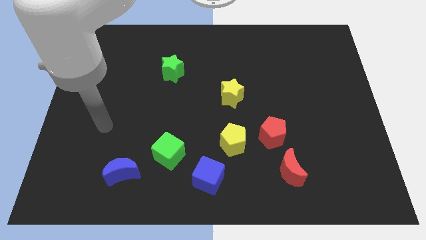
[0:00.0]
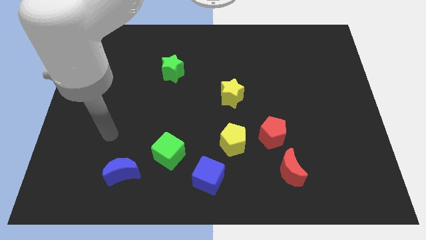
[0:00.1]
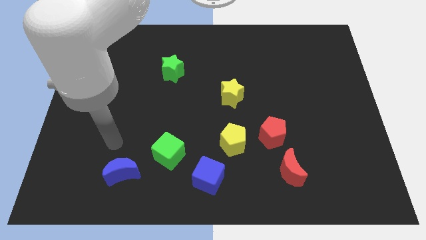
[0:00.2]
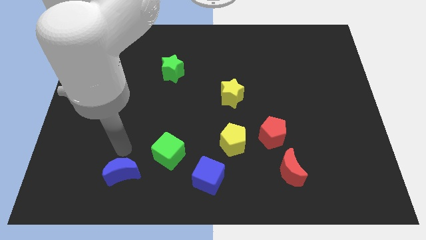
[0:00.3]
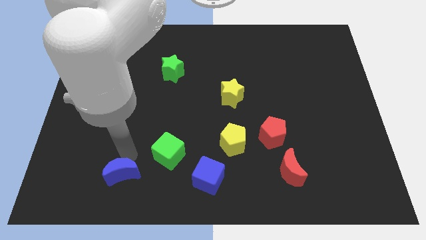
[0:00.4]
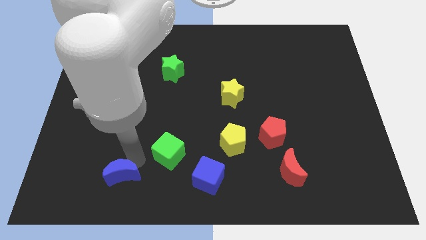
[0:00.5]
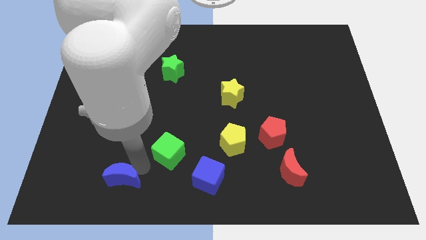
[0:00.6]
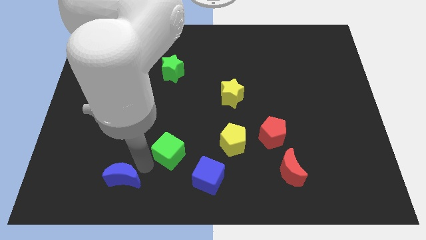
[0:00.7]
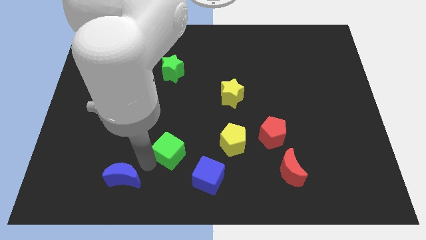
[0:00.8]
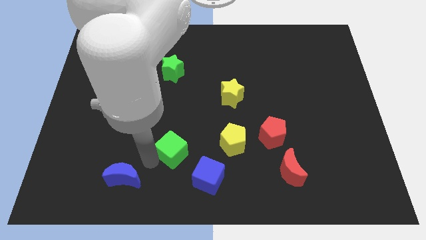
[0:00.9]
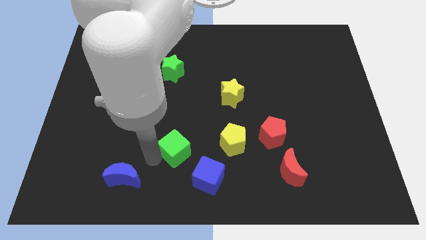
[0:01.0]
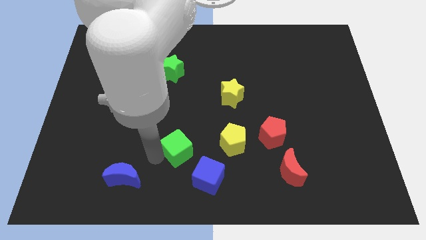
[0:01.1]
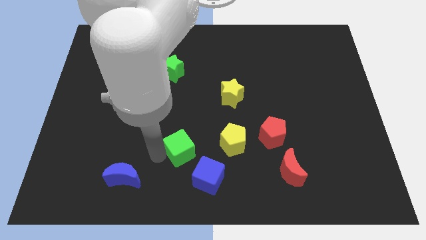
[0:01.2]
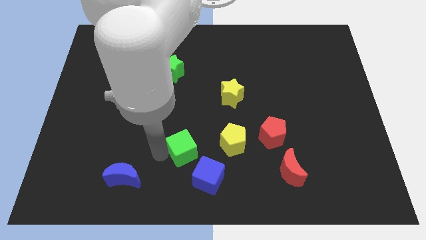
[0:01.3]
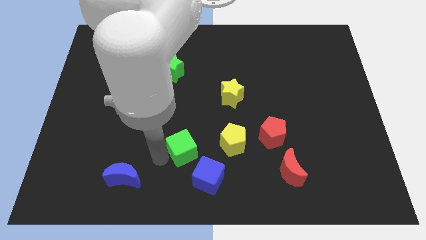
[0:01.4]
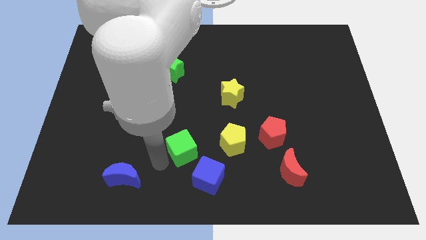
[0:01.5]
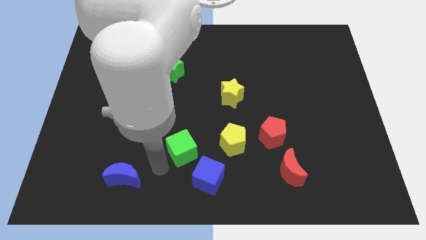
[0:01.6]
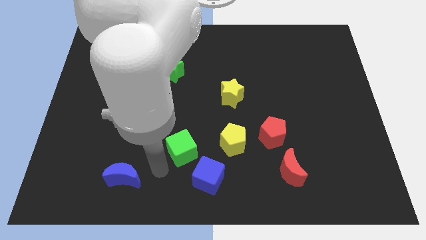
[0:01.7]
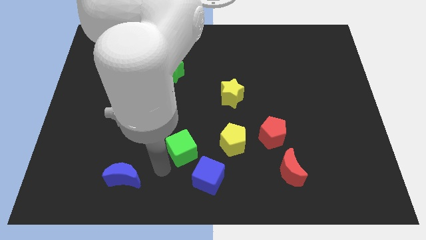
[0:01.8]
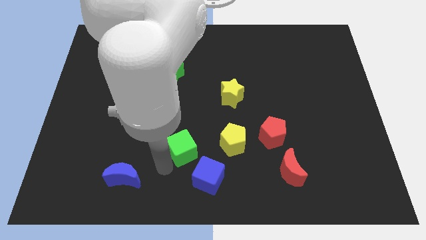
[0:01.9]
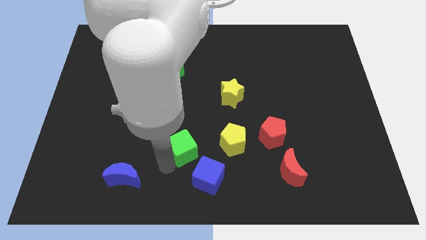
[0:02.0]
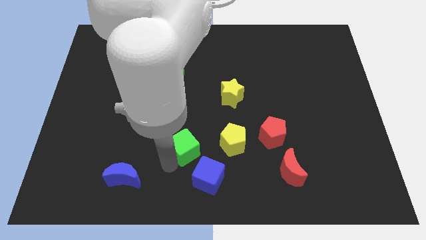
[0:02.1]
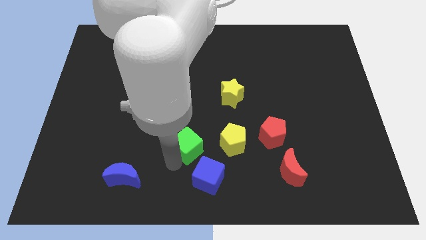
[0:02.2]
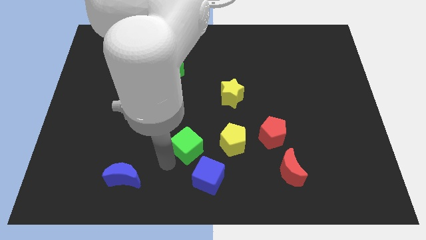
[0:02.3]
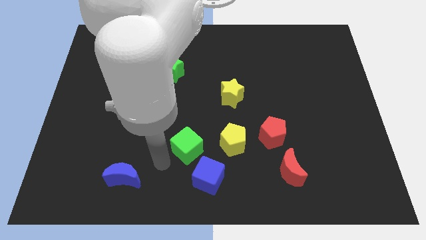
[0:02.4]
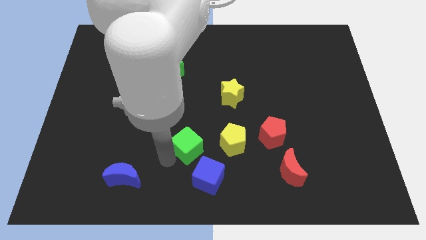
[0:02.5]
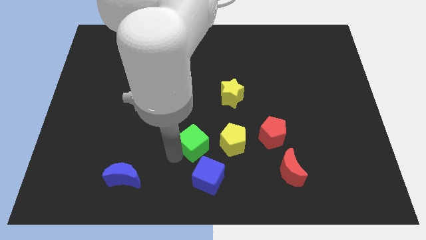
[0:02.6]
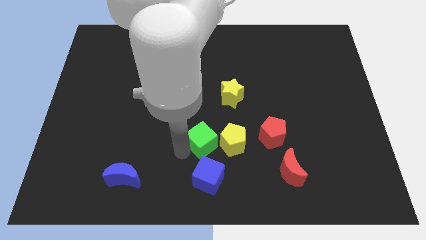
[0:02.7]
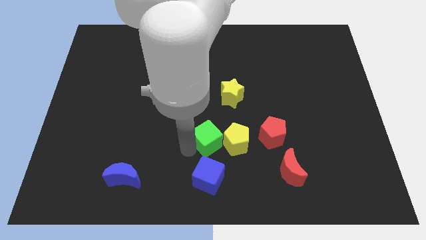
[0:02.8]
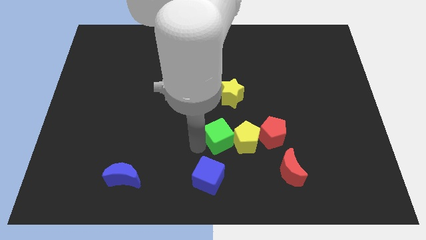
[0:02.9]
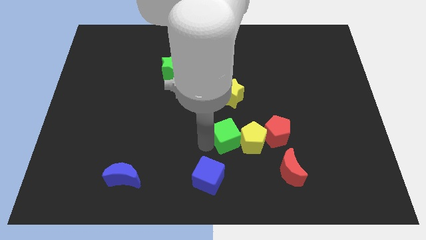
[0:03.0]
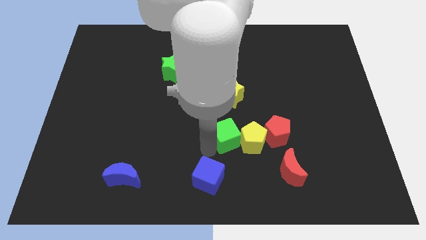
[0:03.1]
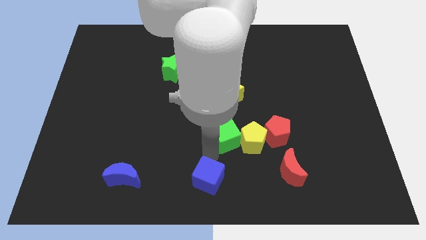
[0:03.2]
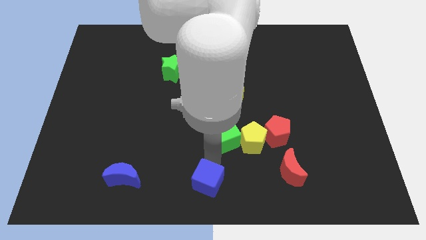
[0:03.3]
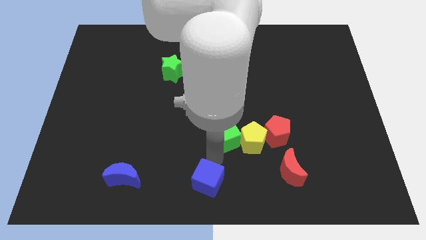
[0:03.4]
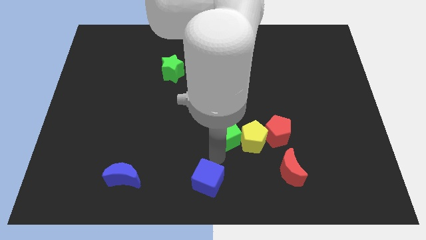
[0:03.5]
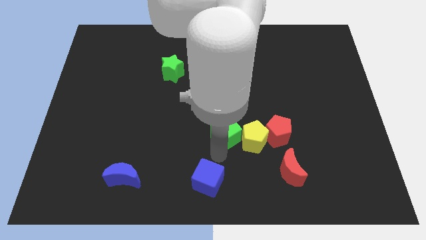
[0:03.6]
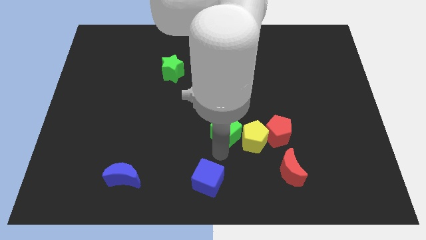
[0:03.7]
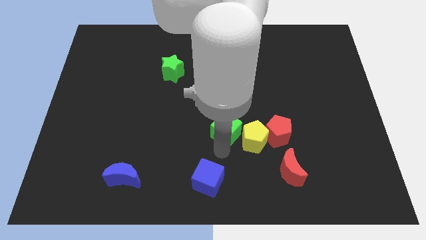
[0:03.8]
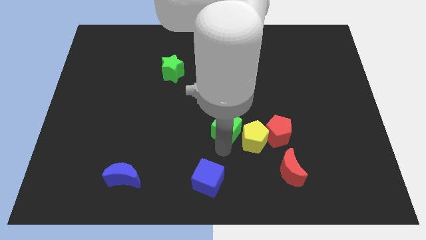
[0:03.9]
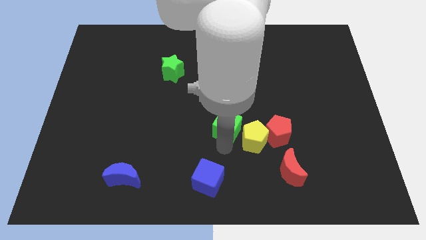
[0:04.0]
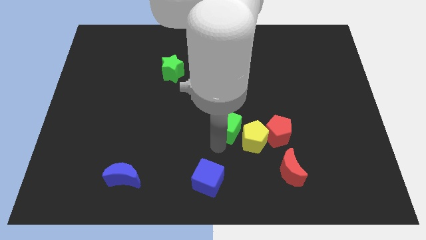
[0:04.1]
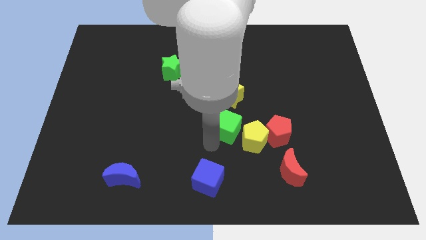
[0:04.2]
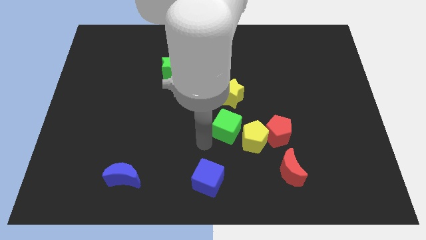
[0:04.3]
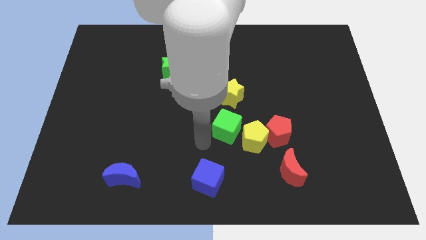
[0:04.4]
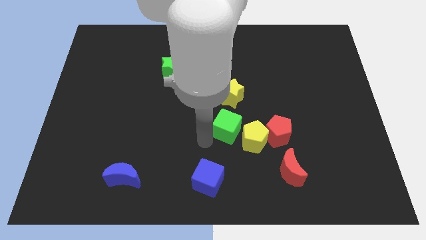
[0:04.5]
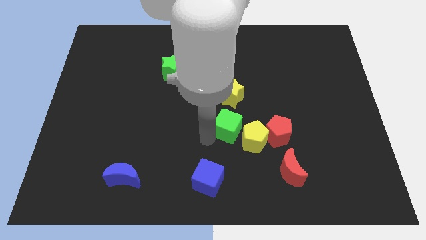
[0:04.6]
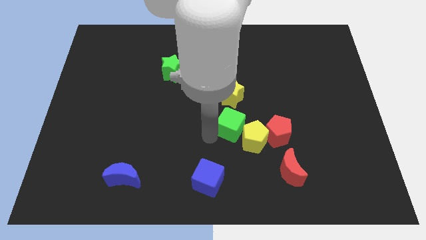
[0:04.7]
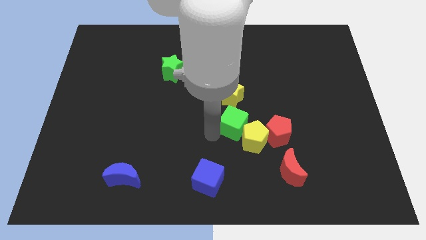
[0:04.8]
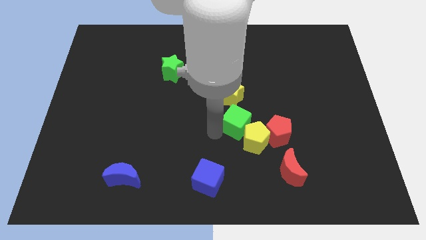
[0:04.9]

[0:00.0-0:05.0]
slide the green cube to the bottom right of the yellow star

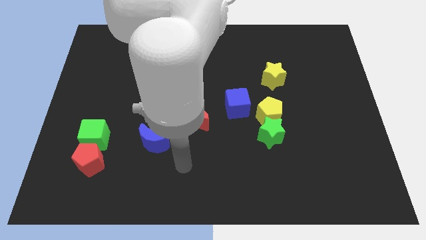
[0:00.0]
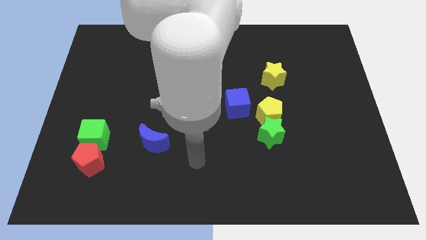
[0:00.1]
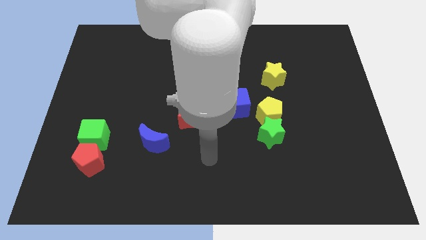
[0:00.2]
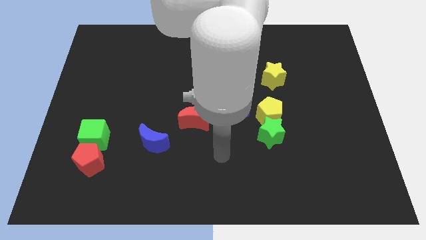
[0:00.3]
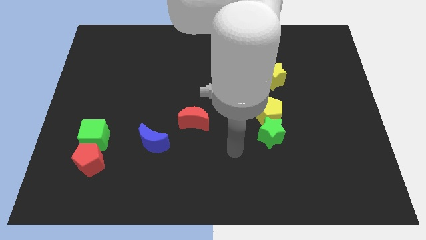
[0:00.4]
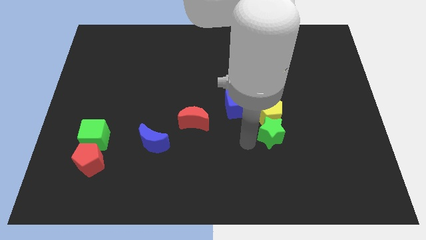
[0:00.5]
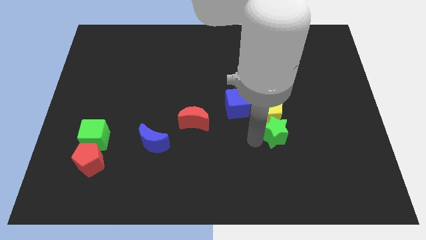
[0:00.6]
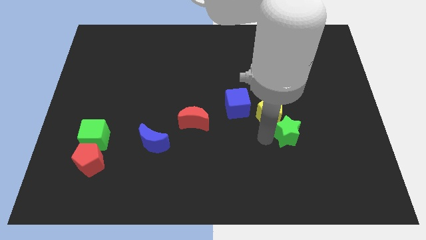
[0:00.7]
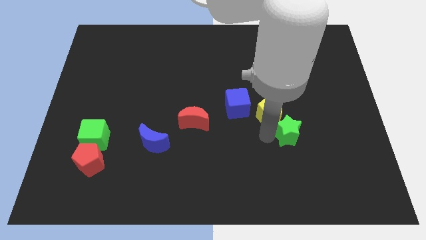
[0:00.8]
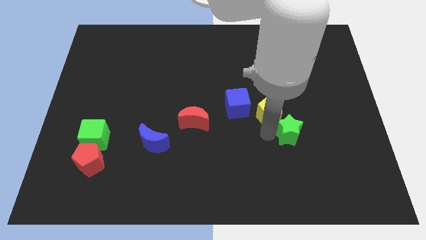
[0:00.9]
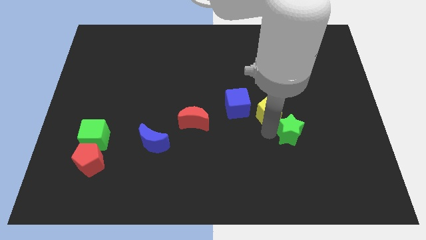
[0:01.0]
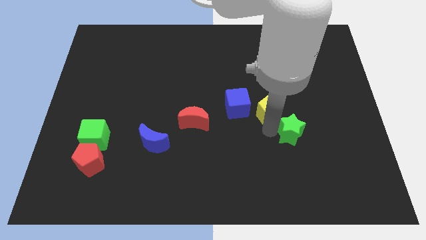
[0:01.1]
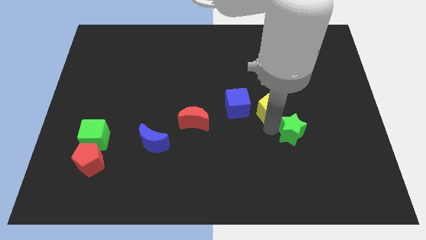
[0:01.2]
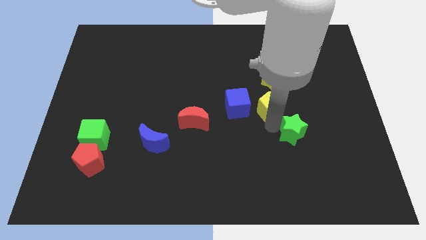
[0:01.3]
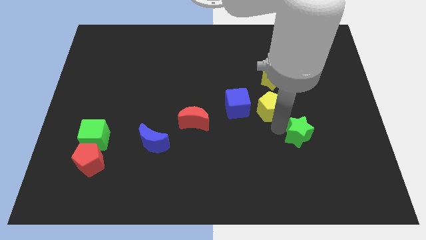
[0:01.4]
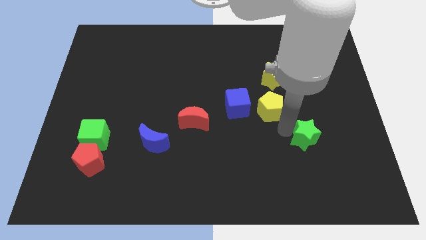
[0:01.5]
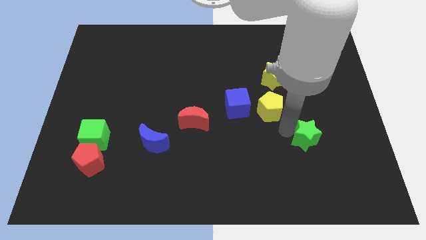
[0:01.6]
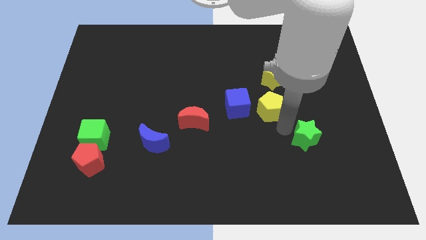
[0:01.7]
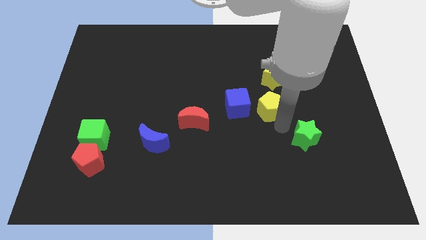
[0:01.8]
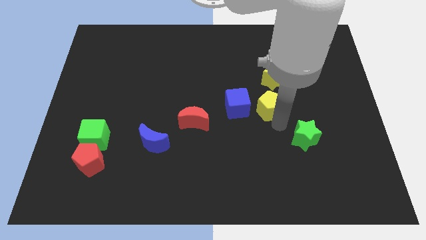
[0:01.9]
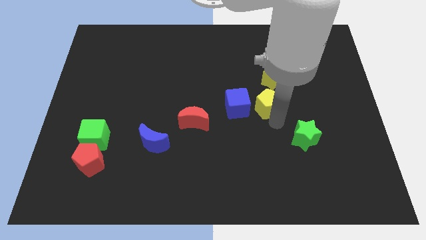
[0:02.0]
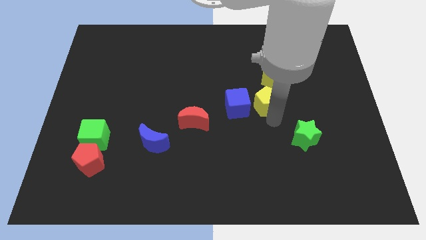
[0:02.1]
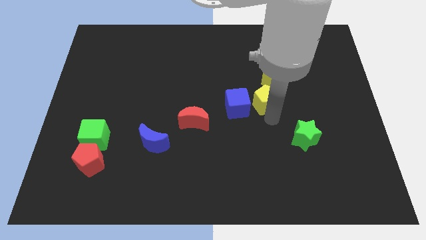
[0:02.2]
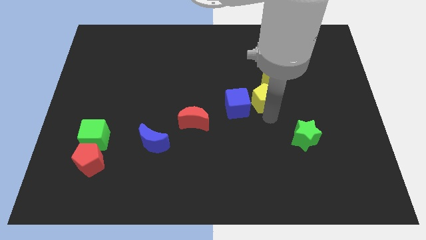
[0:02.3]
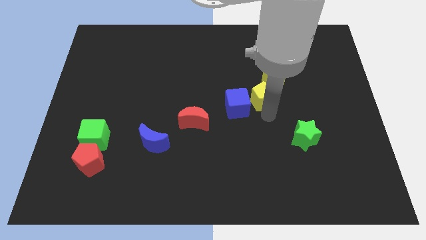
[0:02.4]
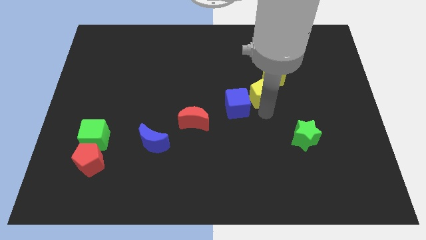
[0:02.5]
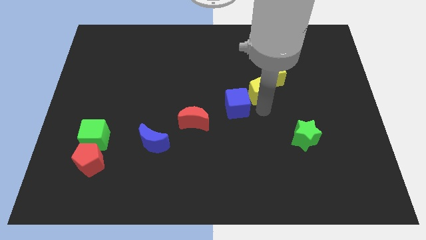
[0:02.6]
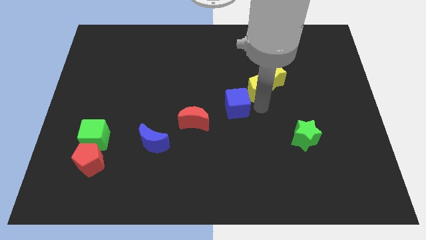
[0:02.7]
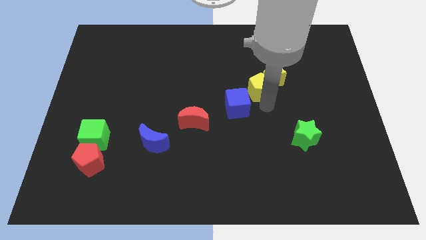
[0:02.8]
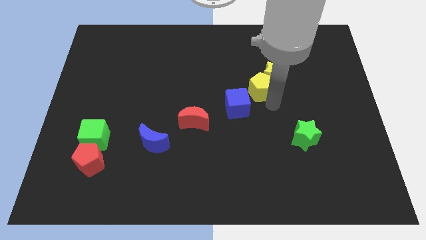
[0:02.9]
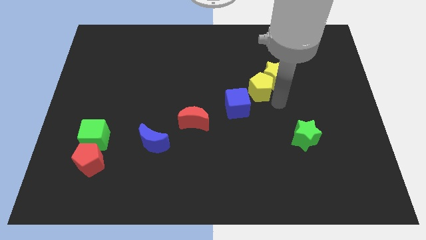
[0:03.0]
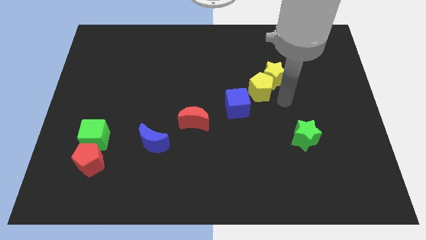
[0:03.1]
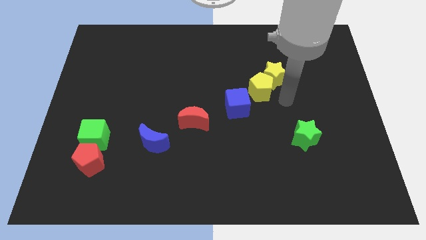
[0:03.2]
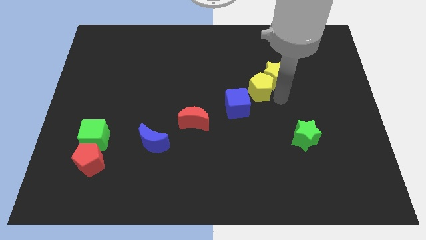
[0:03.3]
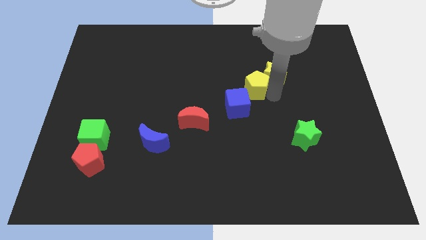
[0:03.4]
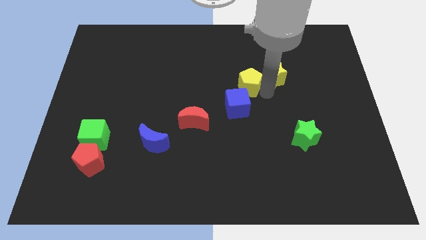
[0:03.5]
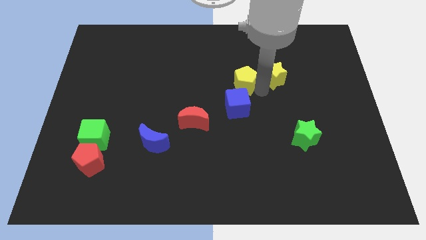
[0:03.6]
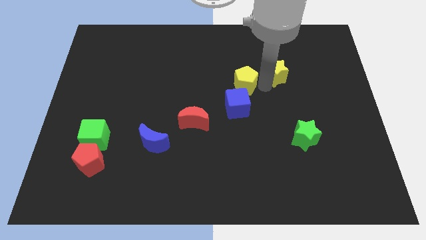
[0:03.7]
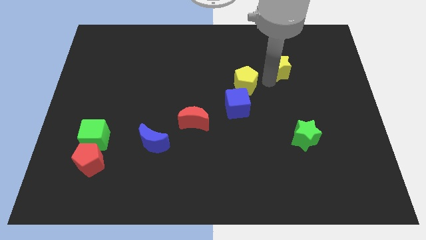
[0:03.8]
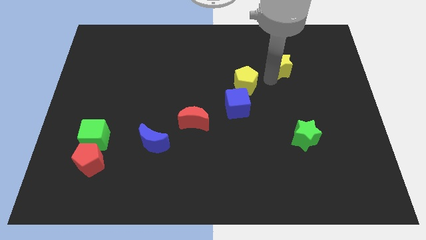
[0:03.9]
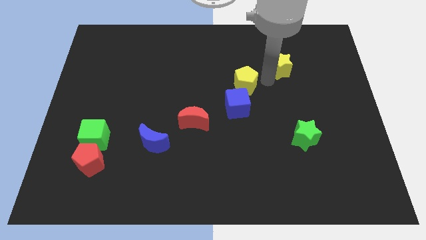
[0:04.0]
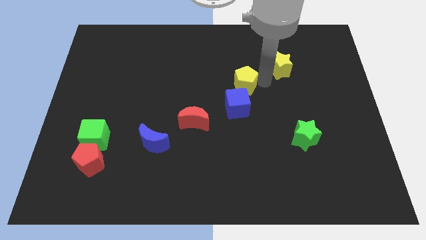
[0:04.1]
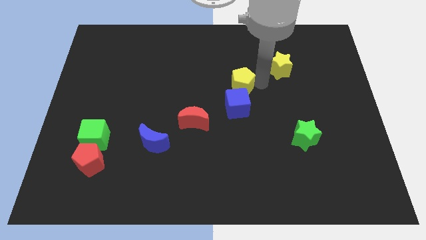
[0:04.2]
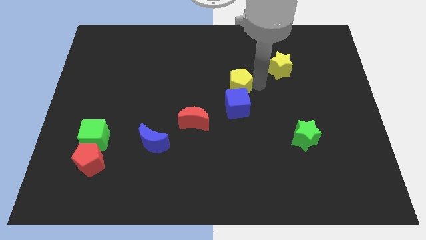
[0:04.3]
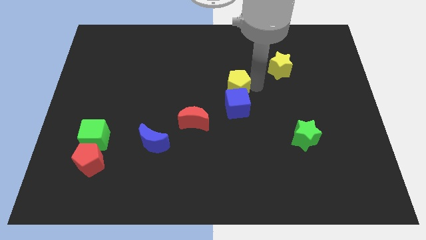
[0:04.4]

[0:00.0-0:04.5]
push the yellow pentagon to the top left side of the blue cube
